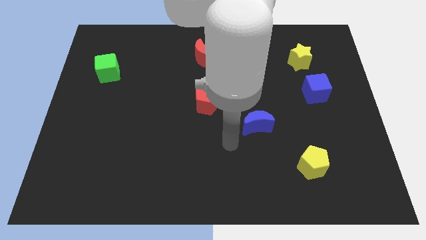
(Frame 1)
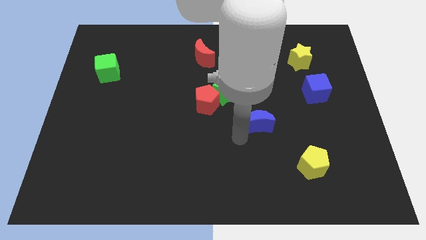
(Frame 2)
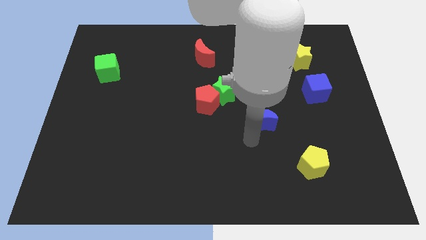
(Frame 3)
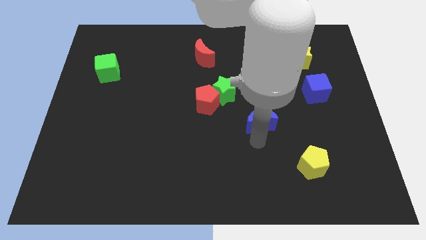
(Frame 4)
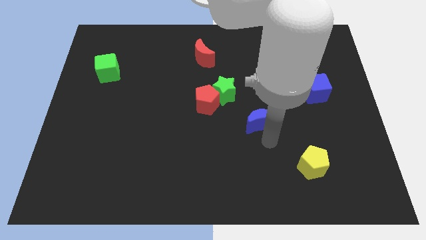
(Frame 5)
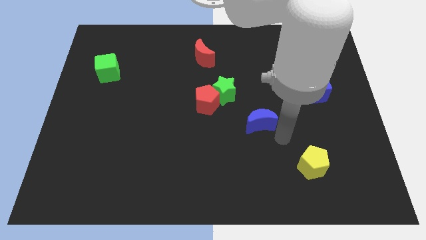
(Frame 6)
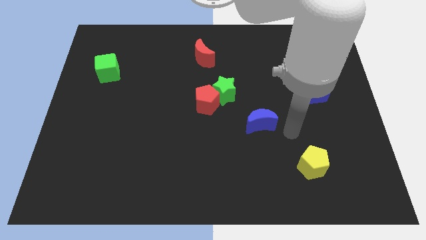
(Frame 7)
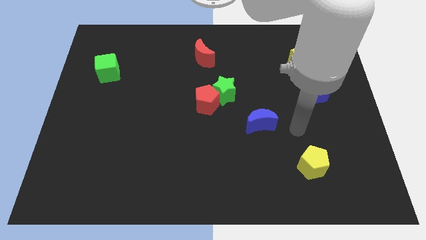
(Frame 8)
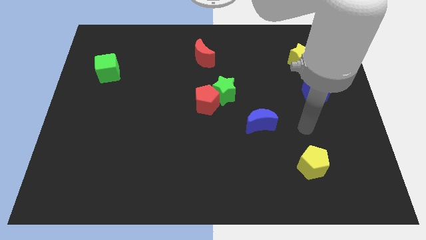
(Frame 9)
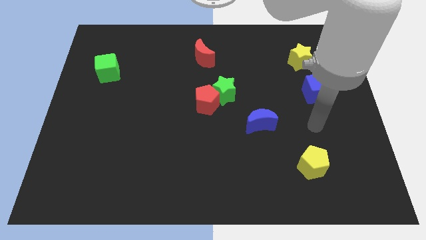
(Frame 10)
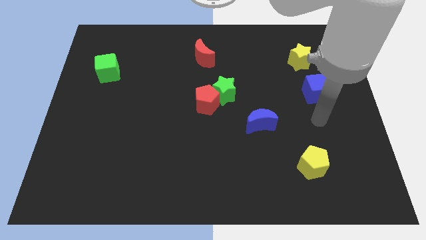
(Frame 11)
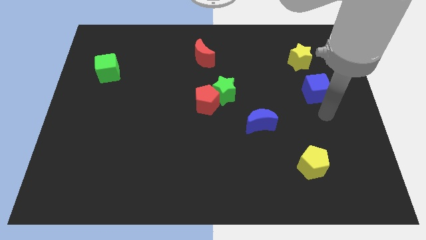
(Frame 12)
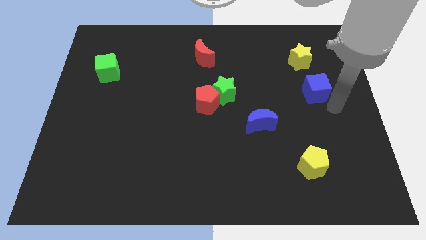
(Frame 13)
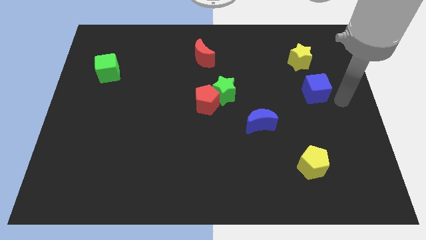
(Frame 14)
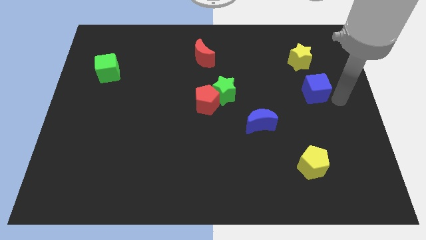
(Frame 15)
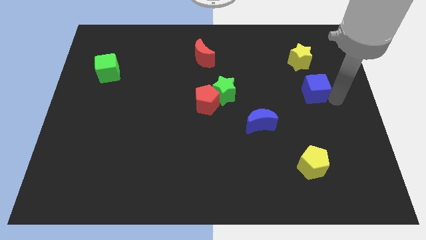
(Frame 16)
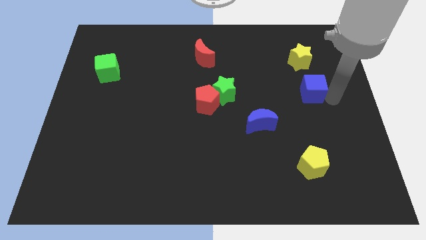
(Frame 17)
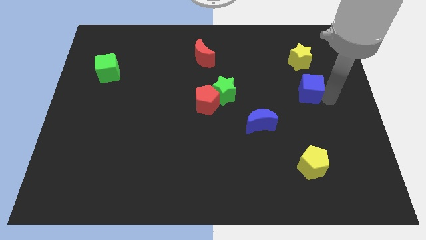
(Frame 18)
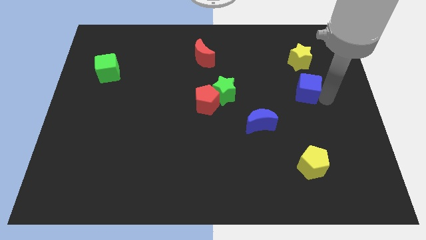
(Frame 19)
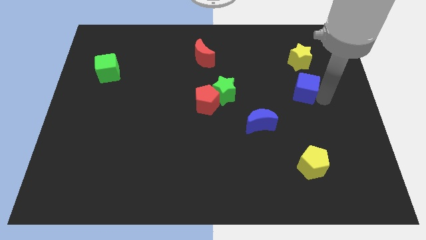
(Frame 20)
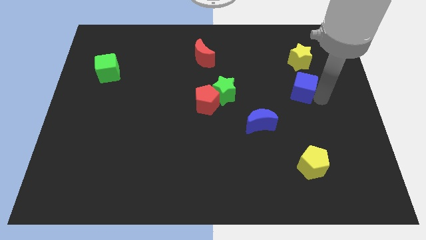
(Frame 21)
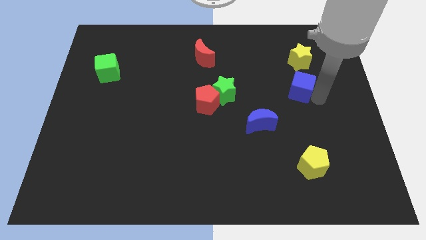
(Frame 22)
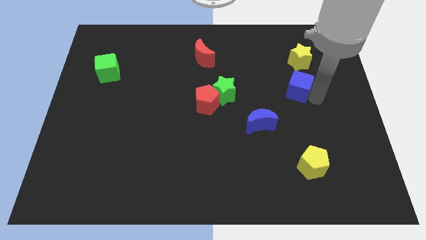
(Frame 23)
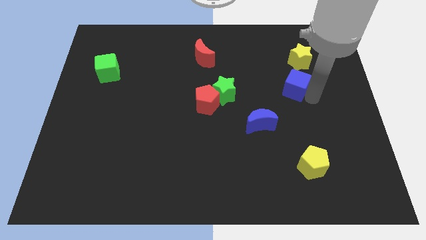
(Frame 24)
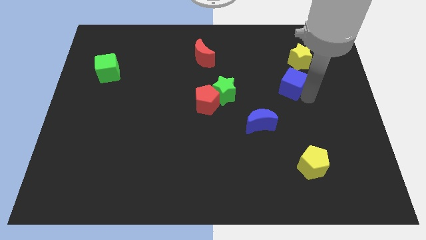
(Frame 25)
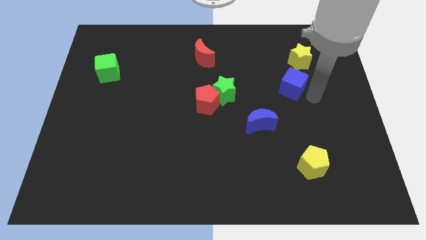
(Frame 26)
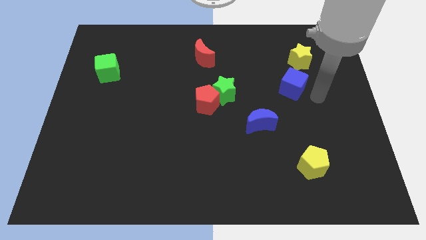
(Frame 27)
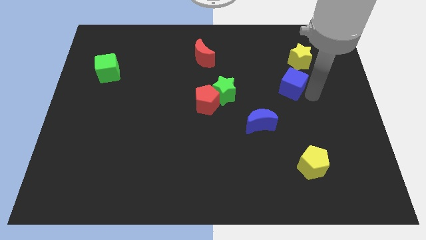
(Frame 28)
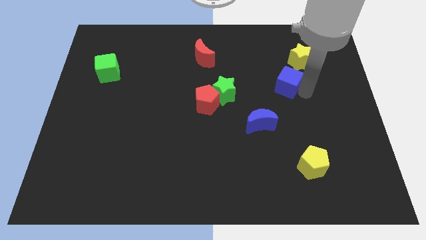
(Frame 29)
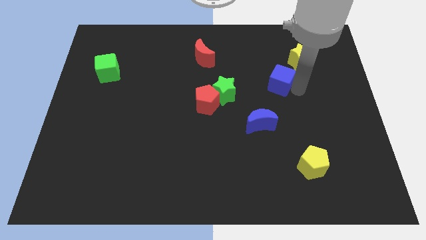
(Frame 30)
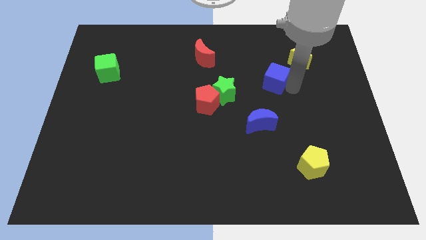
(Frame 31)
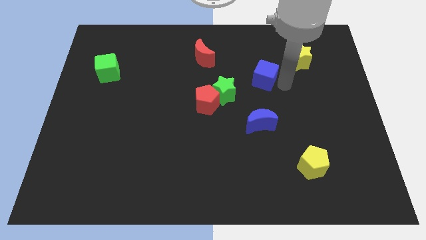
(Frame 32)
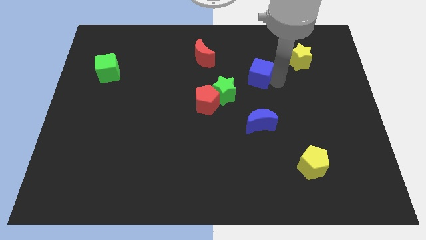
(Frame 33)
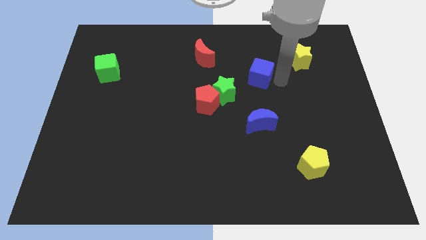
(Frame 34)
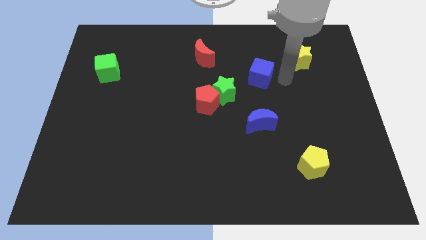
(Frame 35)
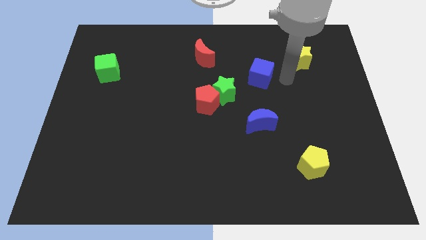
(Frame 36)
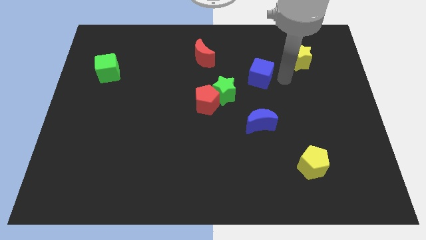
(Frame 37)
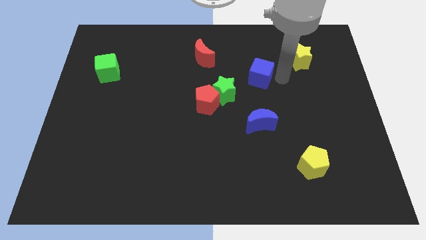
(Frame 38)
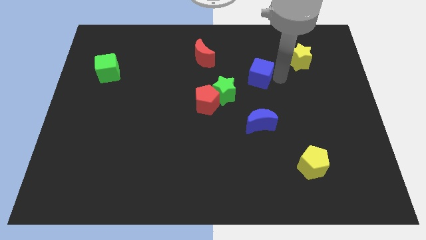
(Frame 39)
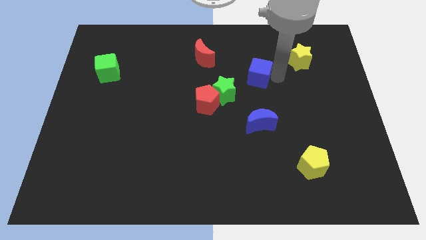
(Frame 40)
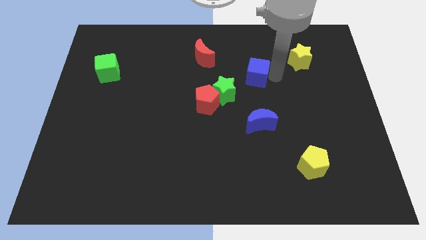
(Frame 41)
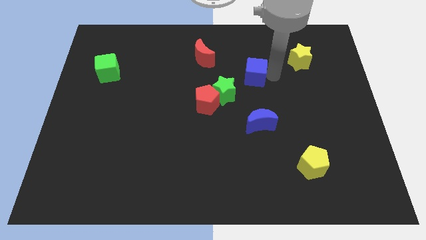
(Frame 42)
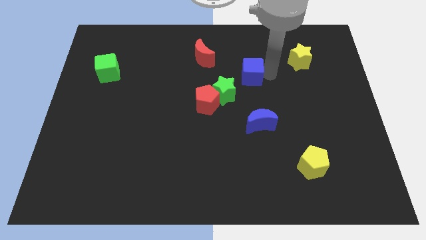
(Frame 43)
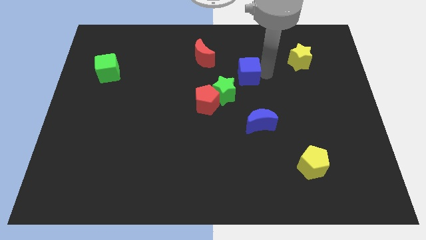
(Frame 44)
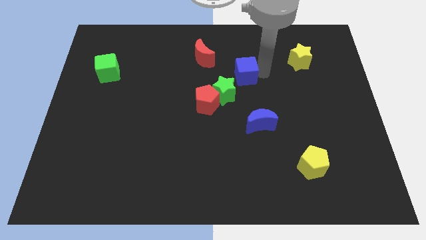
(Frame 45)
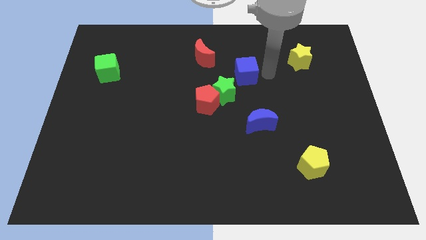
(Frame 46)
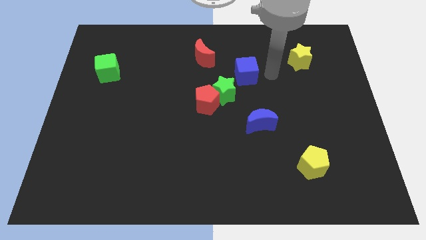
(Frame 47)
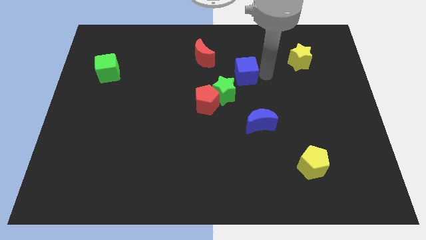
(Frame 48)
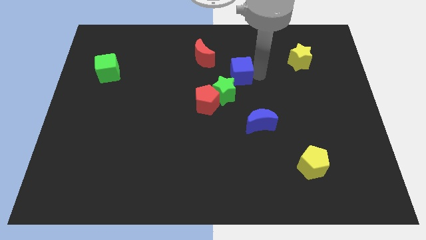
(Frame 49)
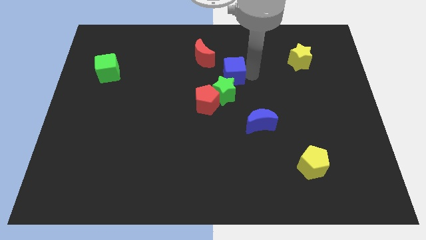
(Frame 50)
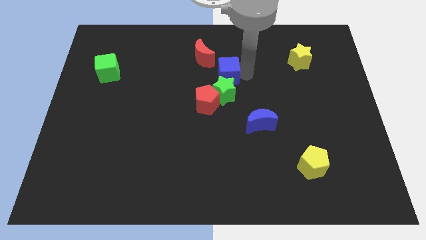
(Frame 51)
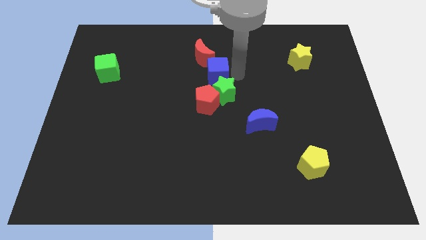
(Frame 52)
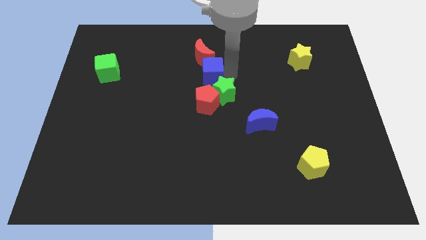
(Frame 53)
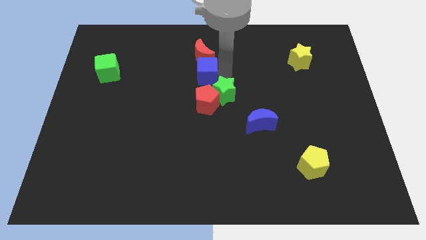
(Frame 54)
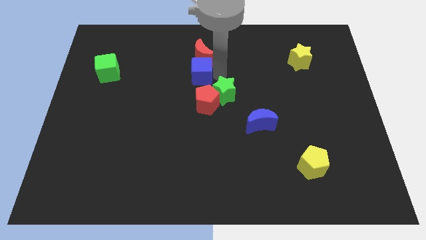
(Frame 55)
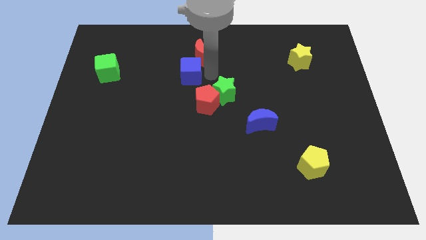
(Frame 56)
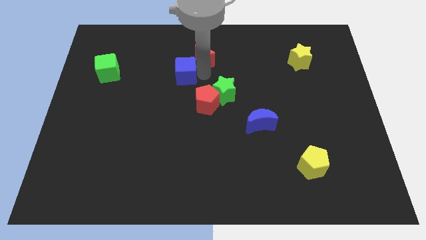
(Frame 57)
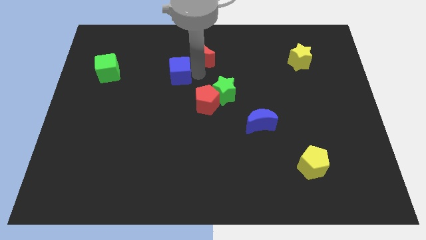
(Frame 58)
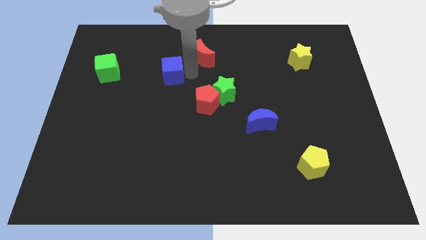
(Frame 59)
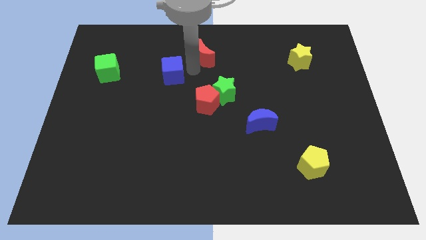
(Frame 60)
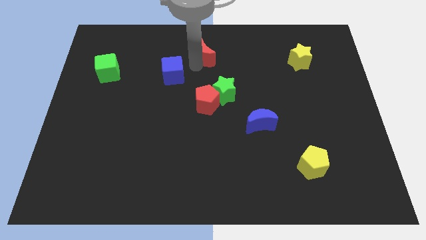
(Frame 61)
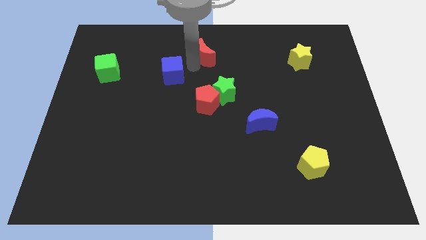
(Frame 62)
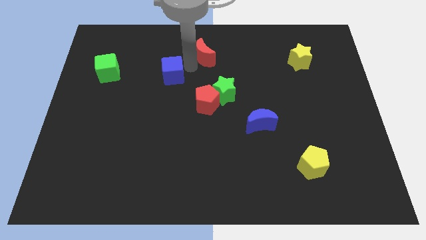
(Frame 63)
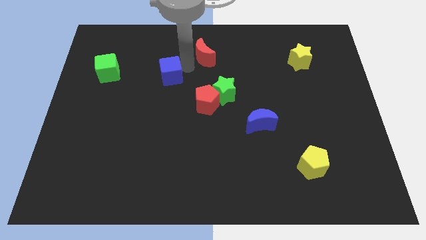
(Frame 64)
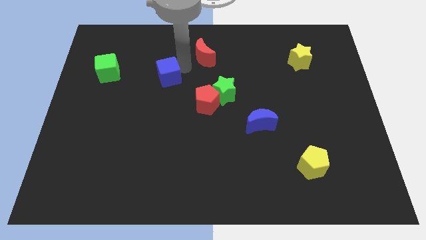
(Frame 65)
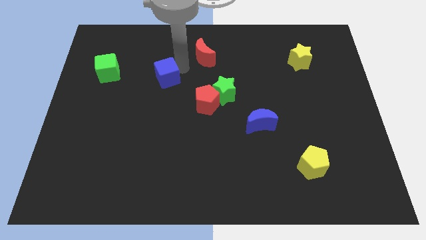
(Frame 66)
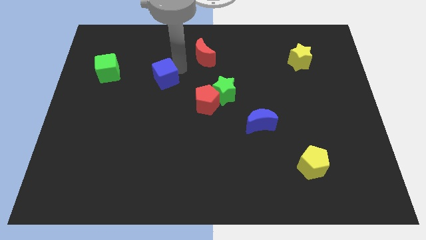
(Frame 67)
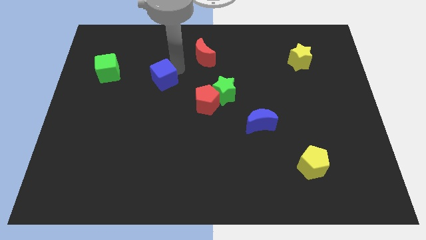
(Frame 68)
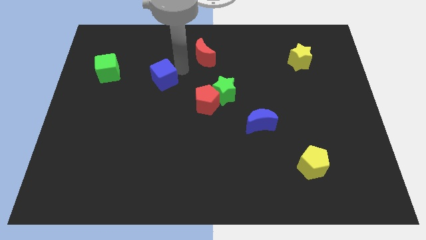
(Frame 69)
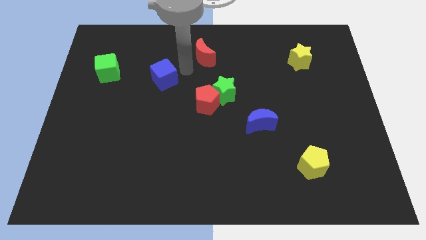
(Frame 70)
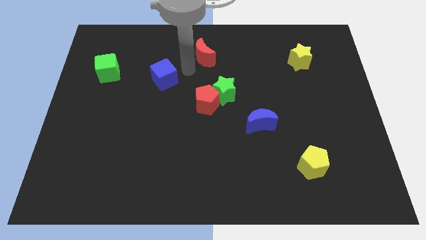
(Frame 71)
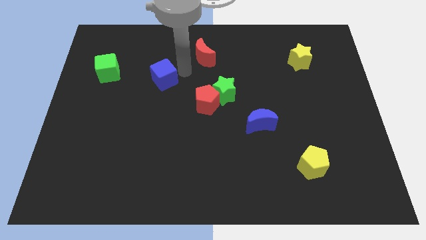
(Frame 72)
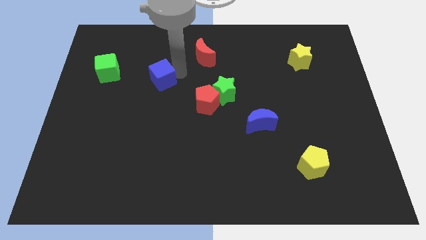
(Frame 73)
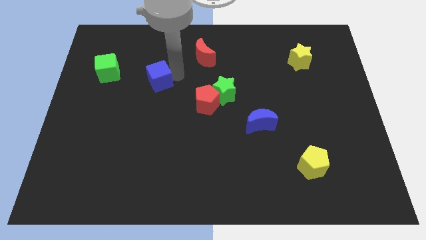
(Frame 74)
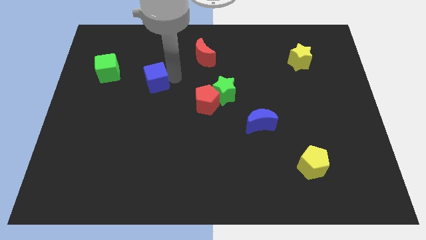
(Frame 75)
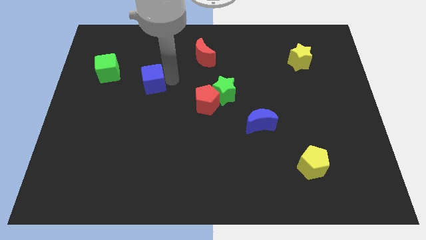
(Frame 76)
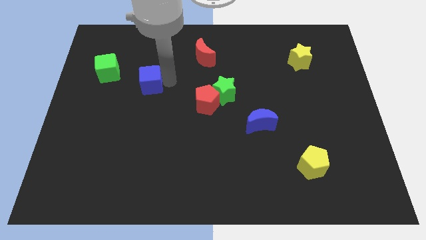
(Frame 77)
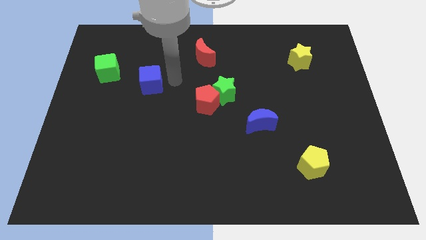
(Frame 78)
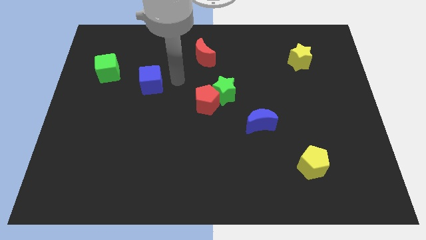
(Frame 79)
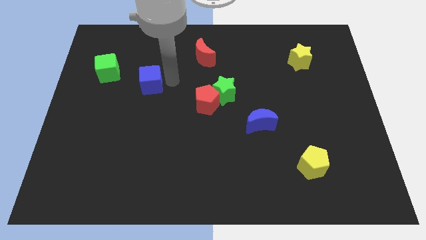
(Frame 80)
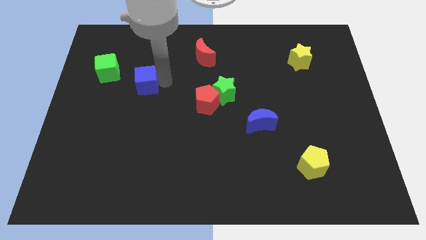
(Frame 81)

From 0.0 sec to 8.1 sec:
put the blue cube to the bottom right of the green cube
